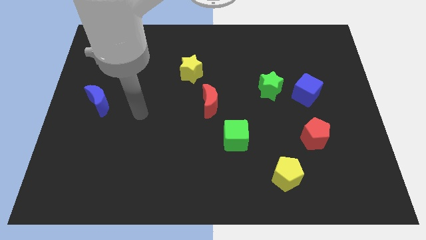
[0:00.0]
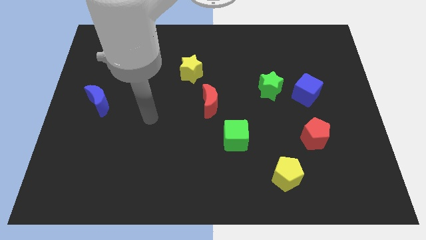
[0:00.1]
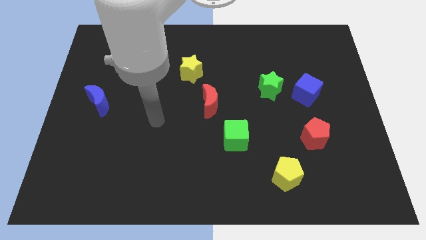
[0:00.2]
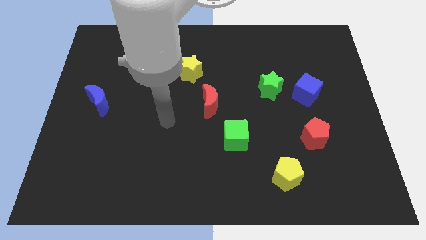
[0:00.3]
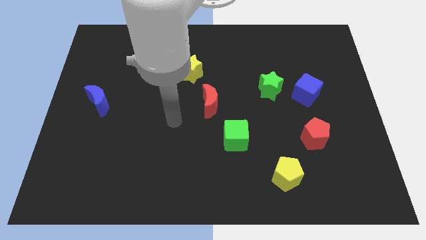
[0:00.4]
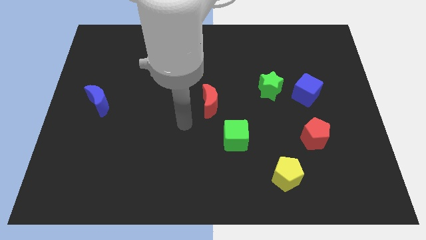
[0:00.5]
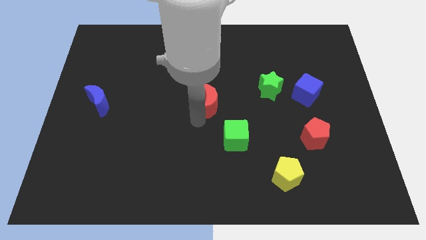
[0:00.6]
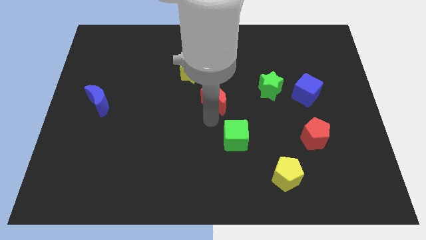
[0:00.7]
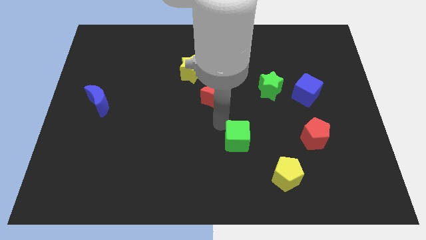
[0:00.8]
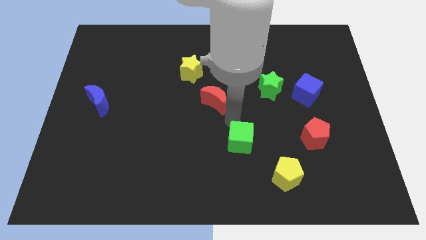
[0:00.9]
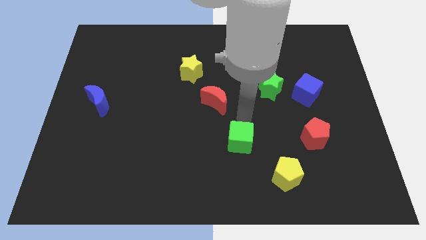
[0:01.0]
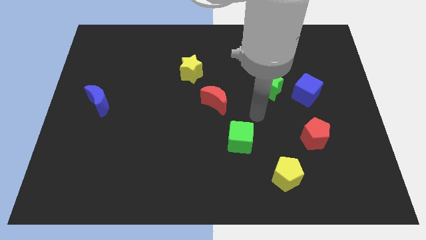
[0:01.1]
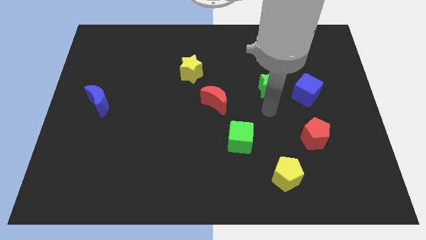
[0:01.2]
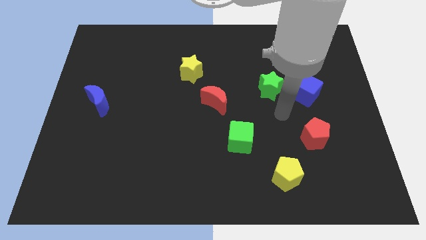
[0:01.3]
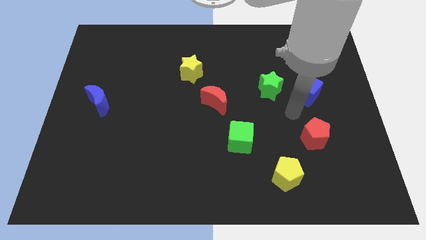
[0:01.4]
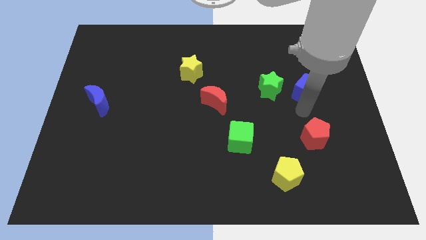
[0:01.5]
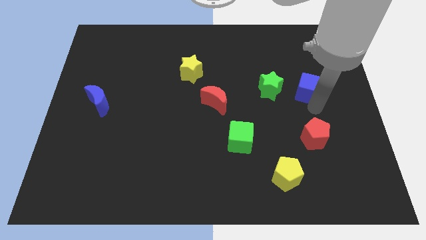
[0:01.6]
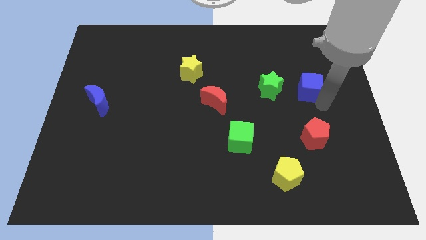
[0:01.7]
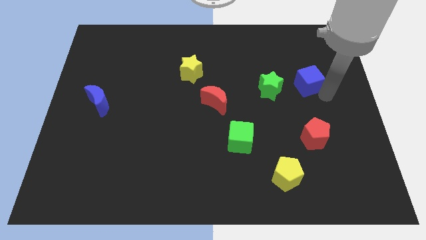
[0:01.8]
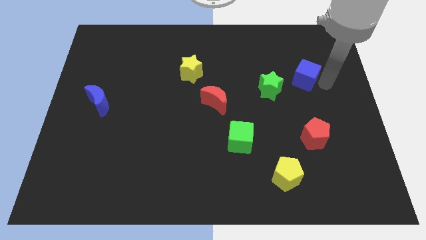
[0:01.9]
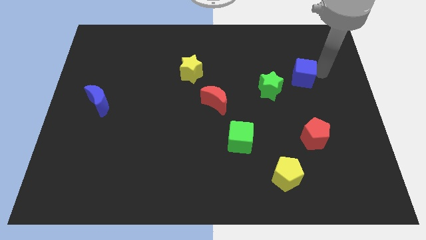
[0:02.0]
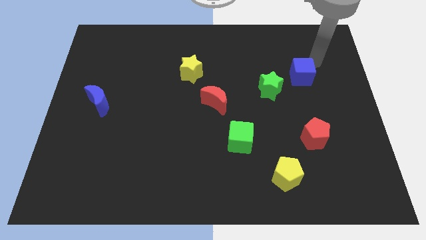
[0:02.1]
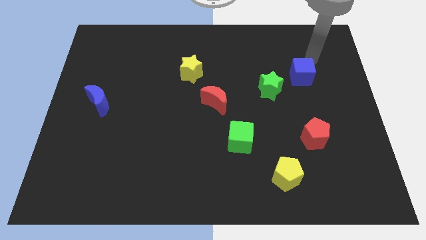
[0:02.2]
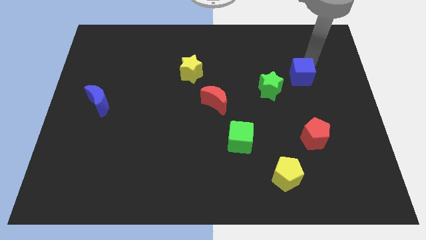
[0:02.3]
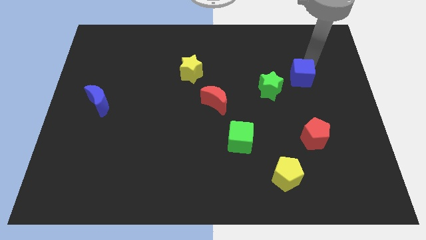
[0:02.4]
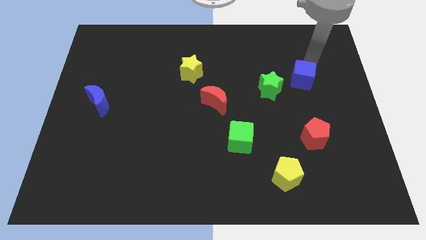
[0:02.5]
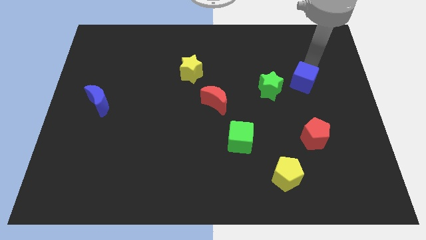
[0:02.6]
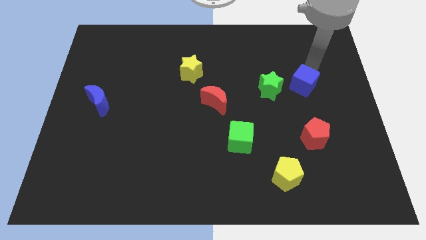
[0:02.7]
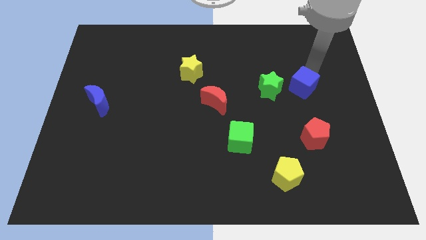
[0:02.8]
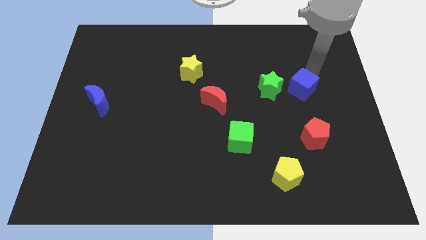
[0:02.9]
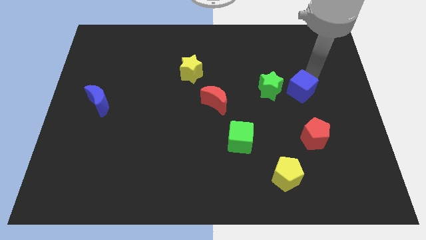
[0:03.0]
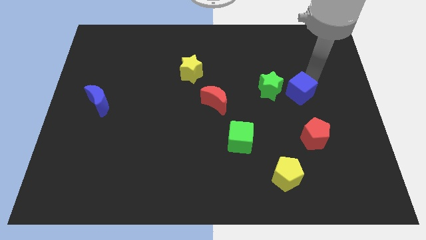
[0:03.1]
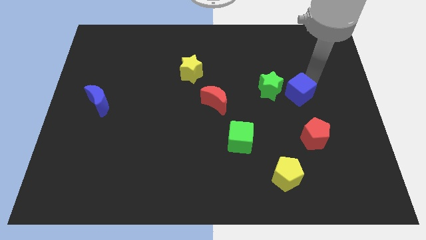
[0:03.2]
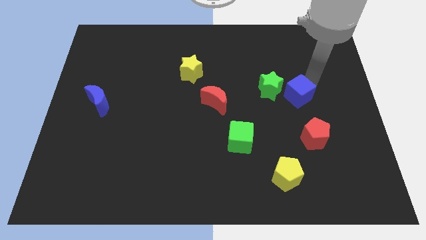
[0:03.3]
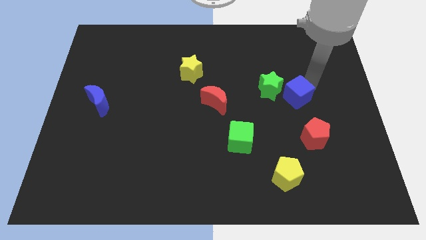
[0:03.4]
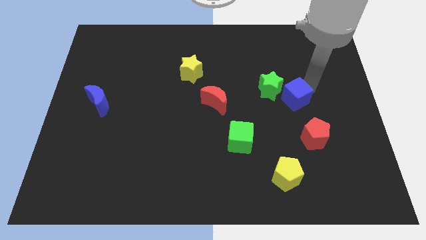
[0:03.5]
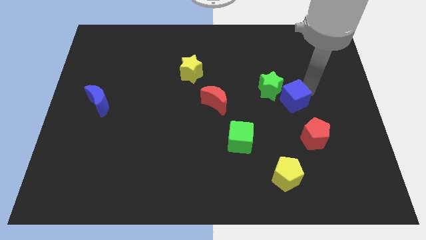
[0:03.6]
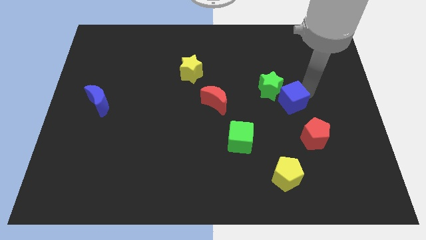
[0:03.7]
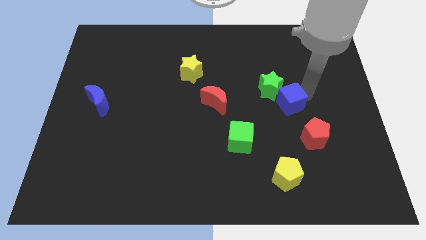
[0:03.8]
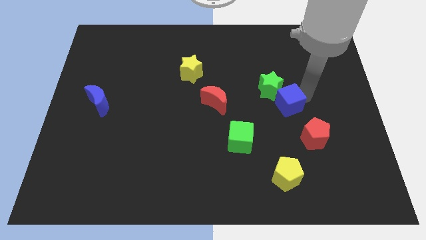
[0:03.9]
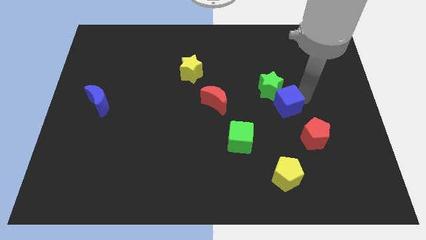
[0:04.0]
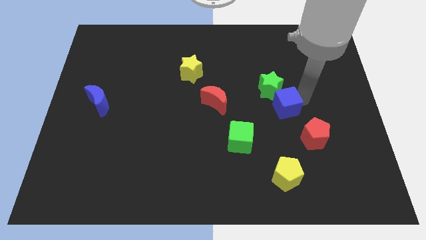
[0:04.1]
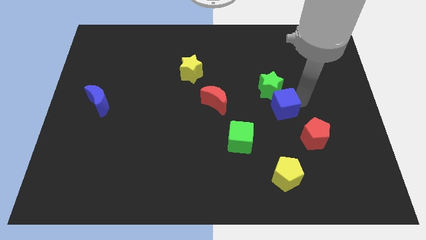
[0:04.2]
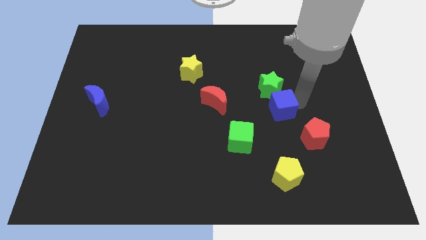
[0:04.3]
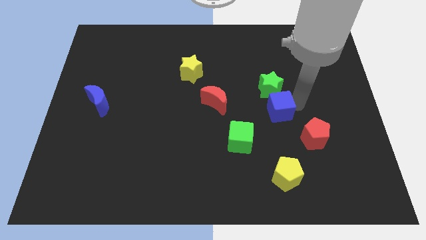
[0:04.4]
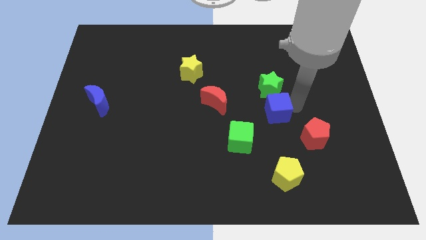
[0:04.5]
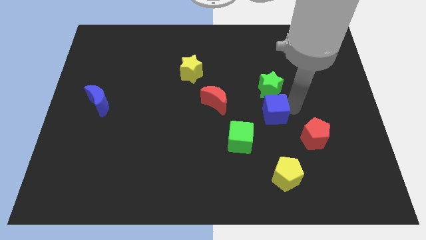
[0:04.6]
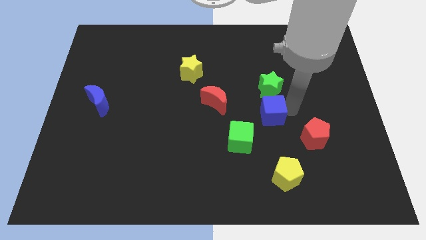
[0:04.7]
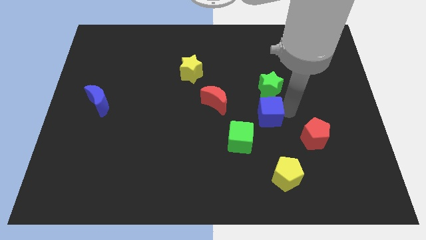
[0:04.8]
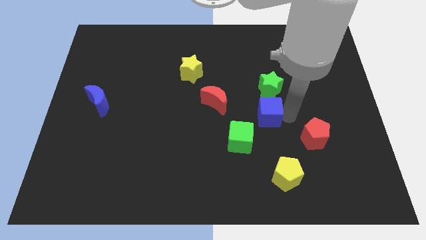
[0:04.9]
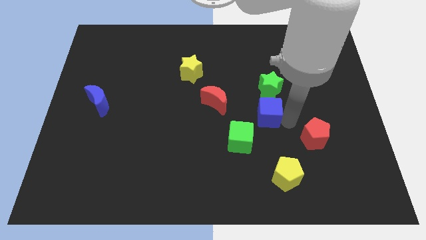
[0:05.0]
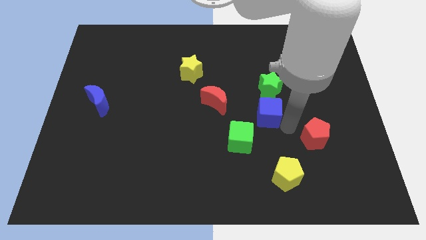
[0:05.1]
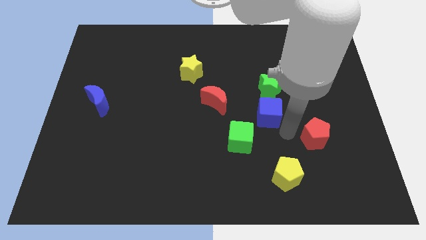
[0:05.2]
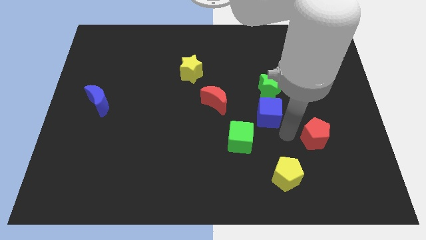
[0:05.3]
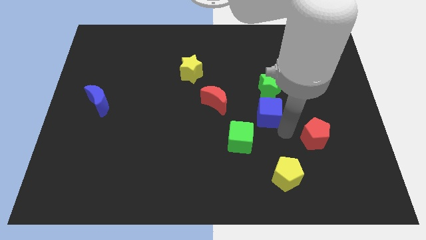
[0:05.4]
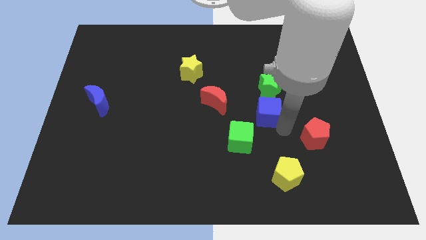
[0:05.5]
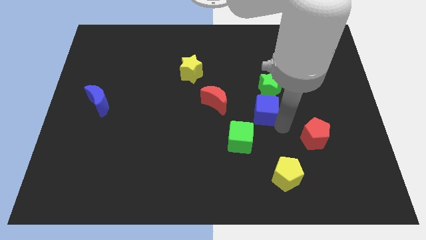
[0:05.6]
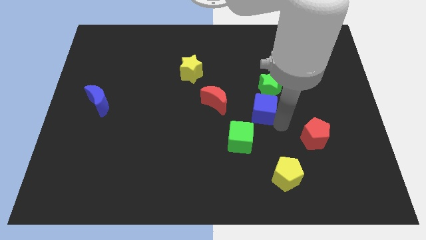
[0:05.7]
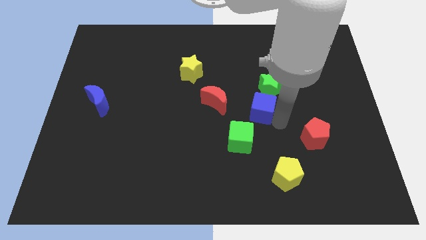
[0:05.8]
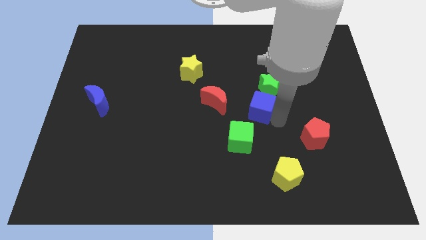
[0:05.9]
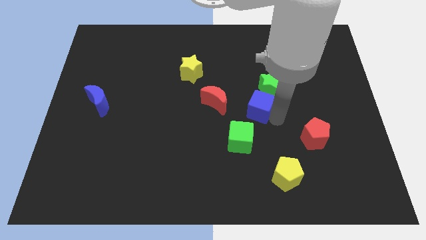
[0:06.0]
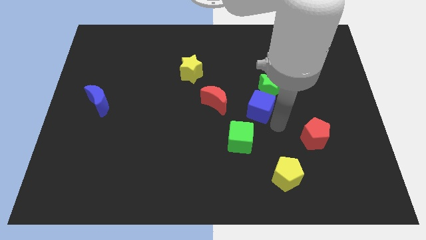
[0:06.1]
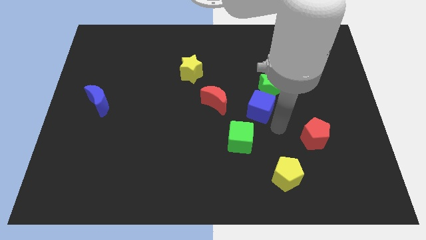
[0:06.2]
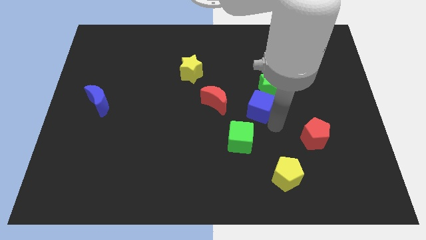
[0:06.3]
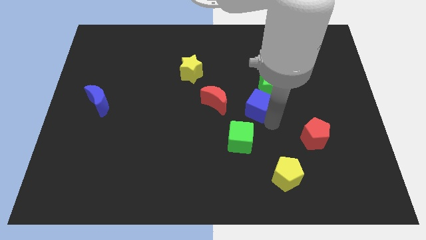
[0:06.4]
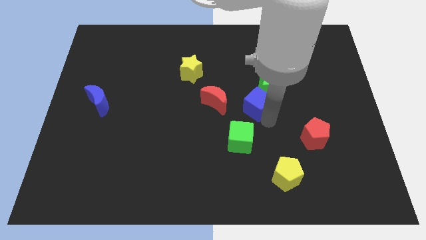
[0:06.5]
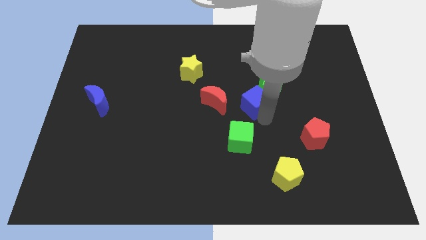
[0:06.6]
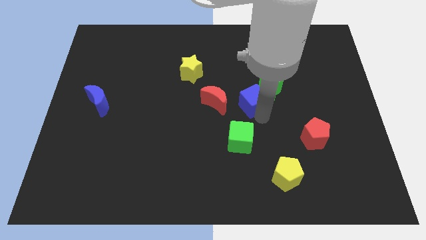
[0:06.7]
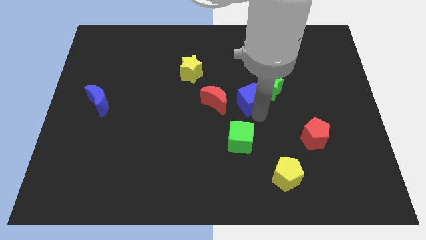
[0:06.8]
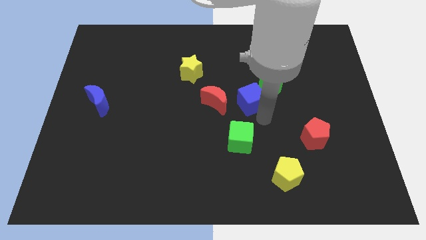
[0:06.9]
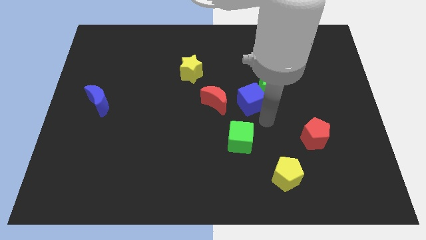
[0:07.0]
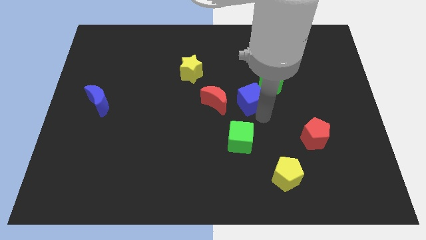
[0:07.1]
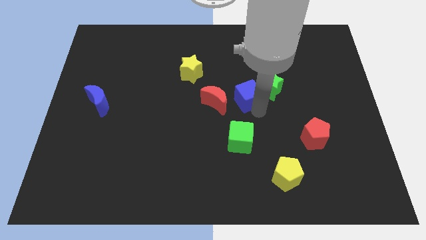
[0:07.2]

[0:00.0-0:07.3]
slide the blue cube to the top right of the red moon
